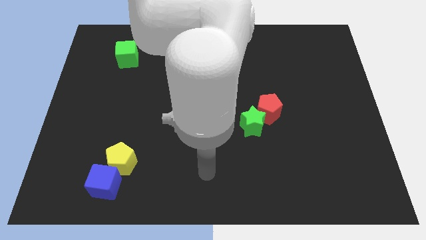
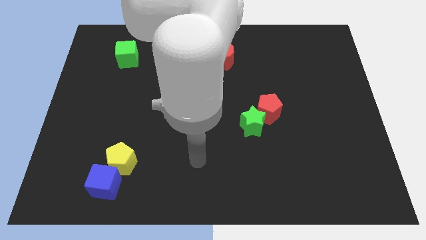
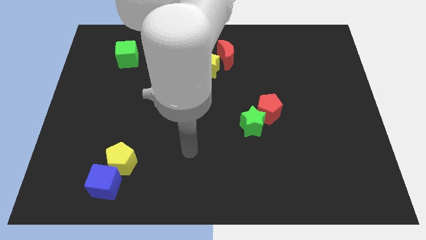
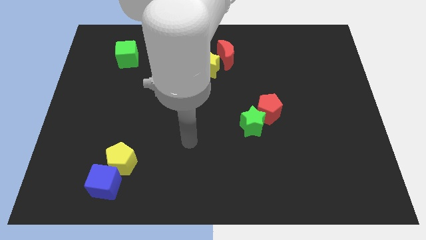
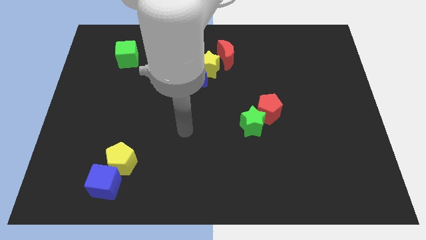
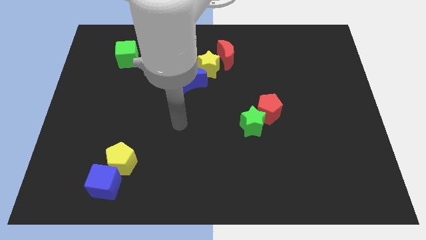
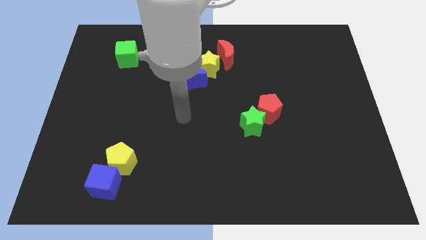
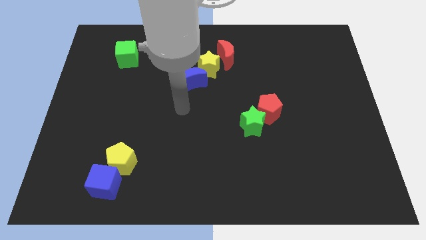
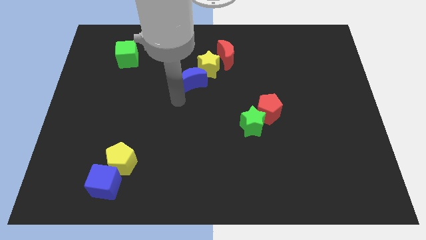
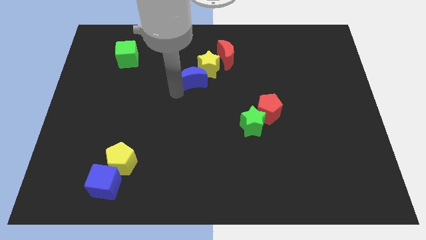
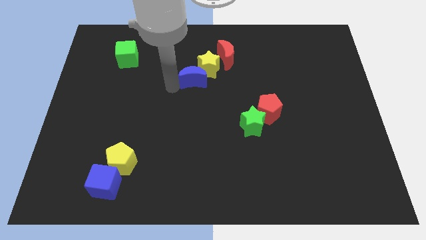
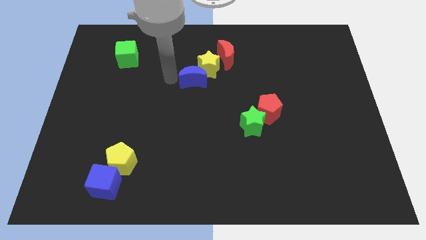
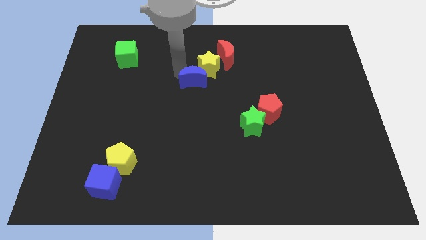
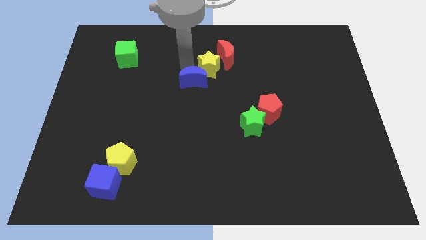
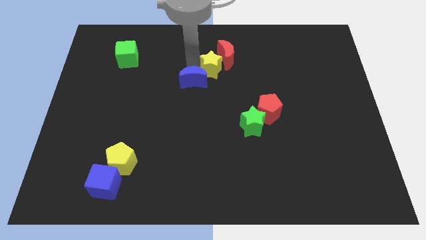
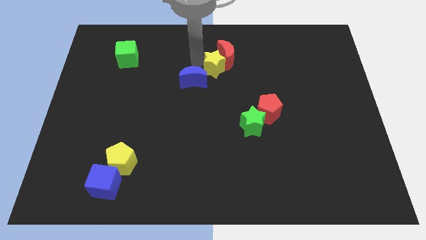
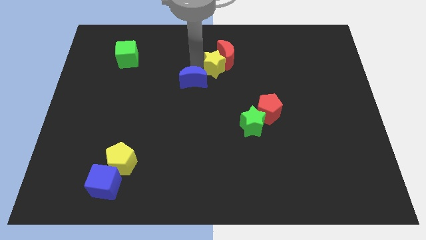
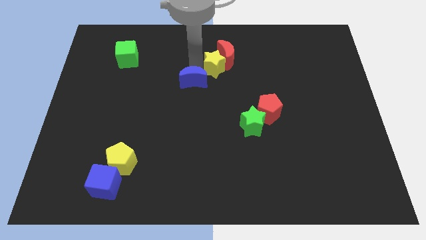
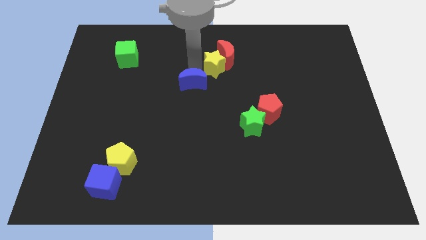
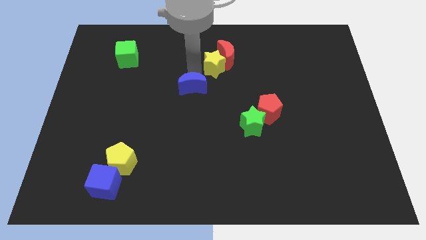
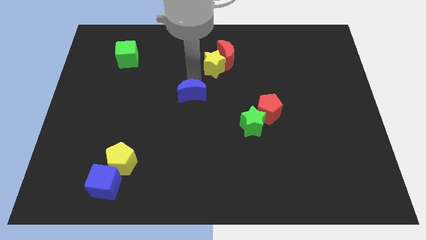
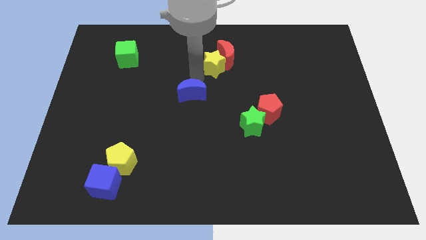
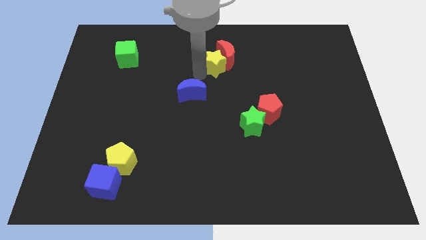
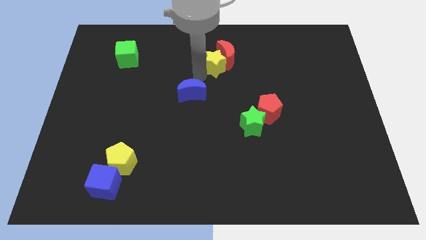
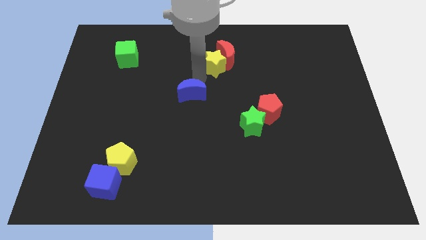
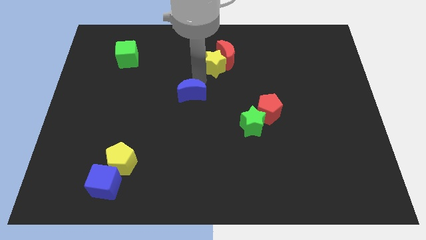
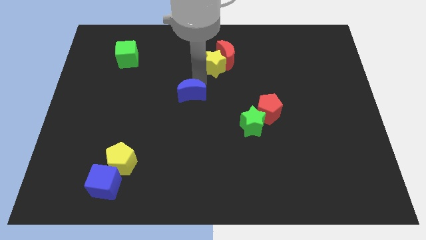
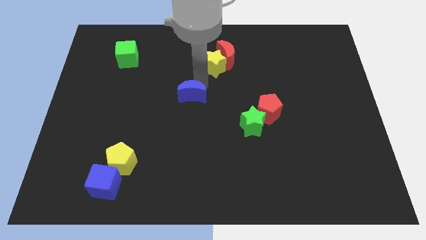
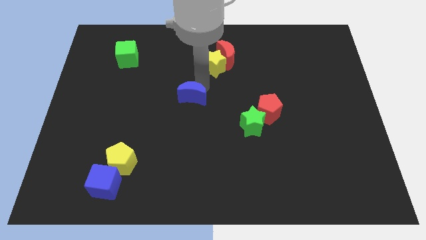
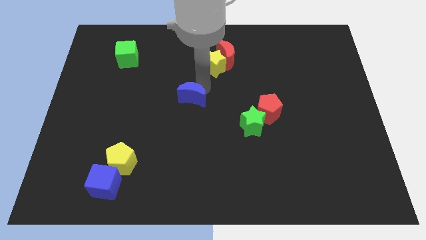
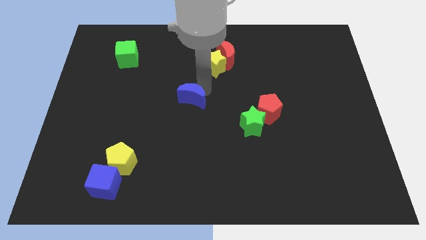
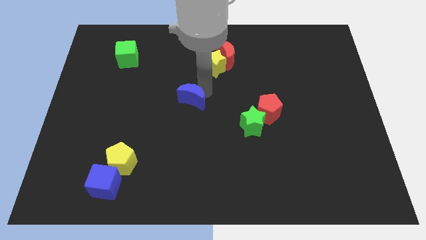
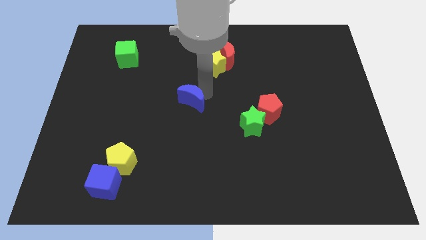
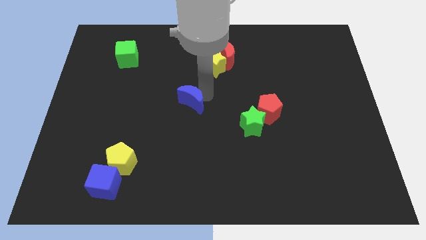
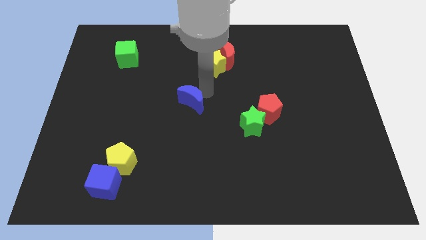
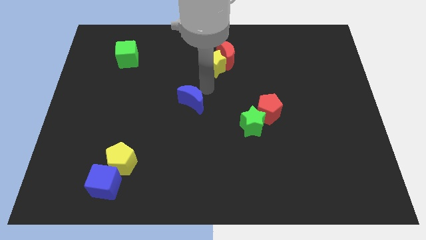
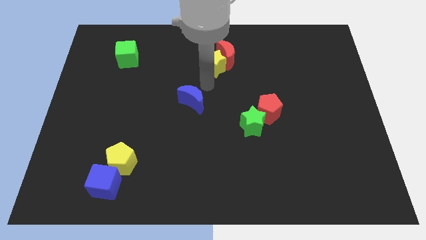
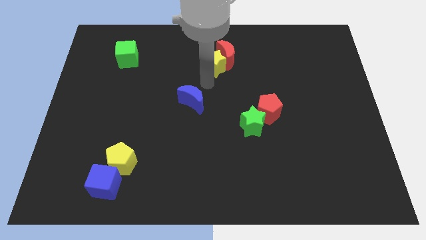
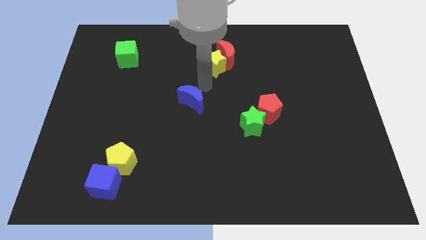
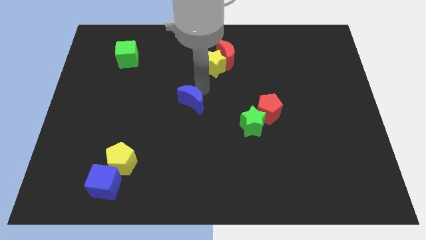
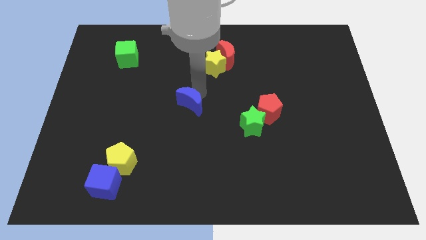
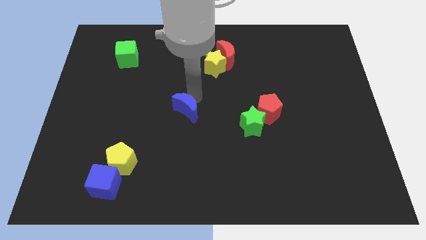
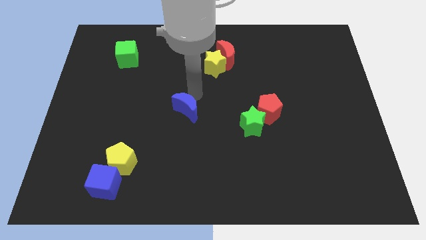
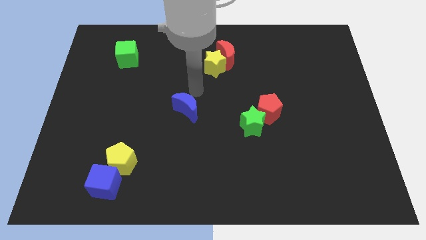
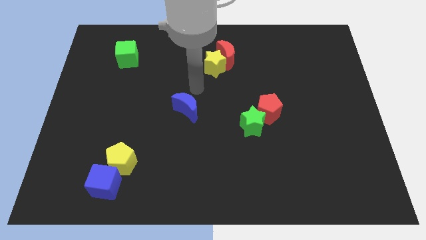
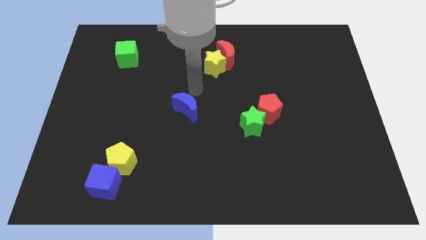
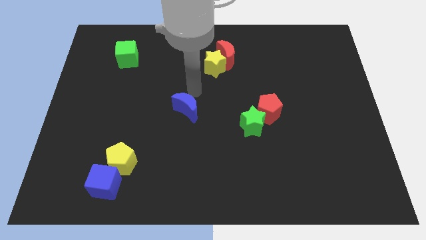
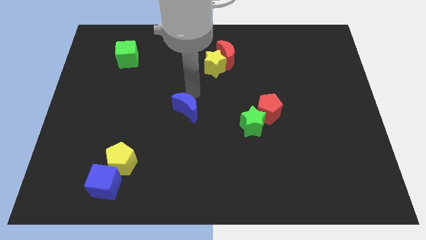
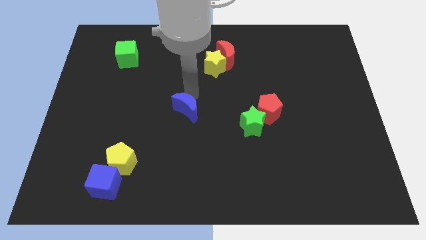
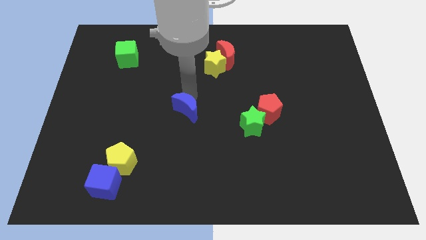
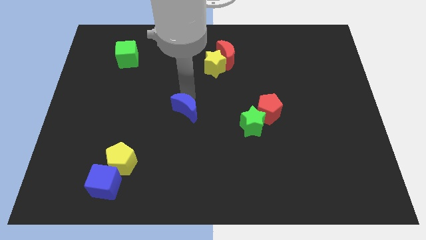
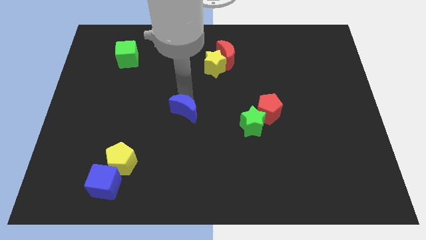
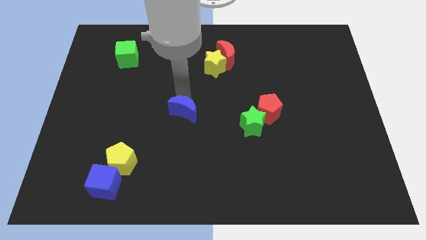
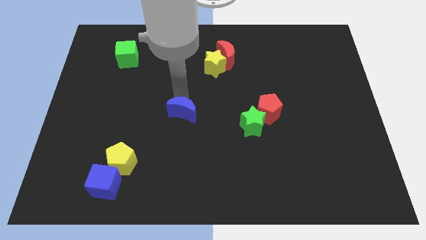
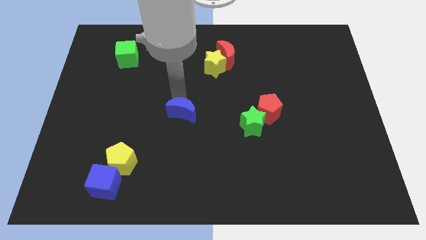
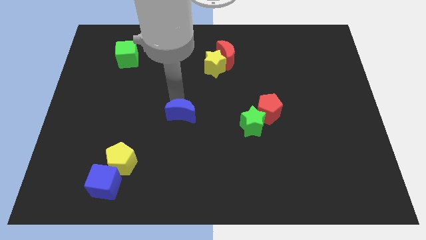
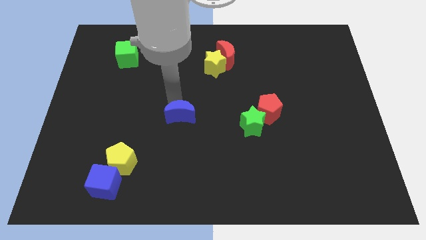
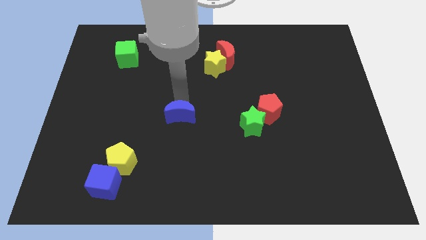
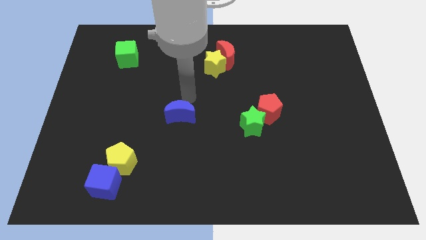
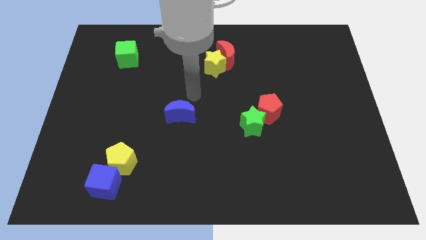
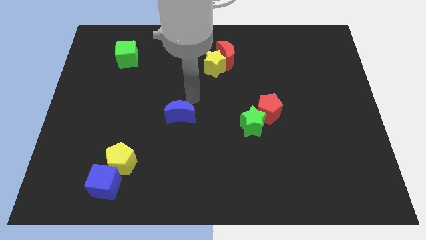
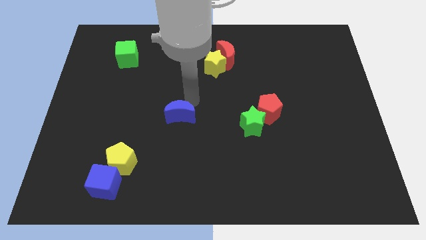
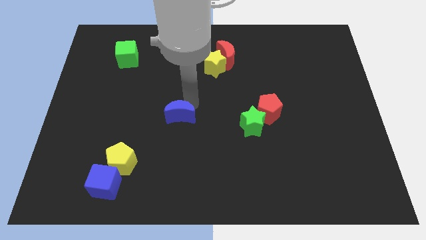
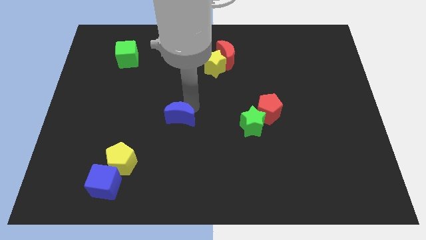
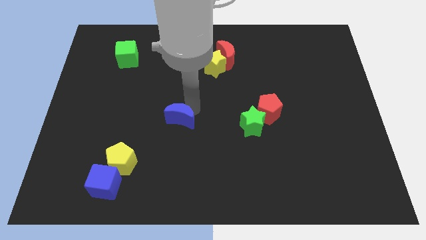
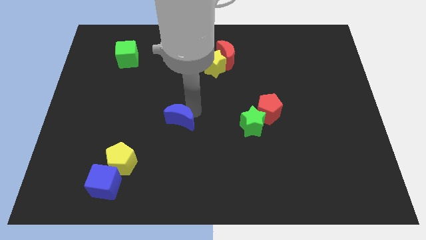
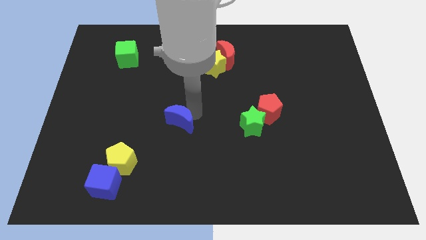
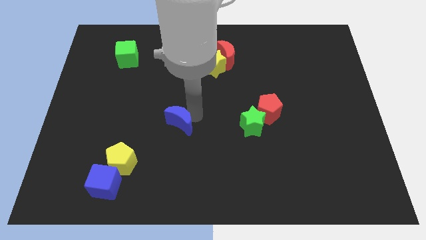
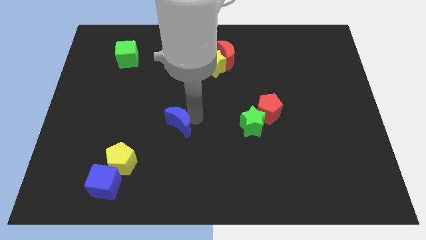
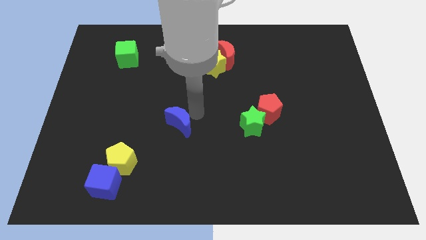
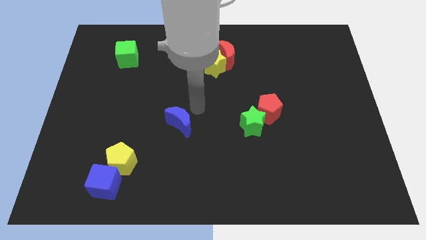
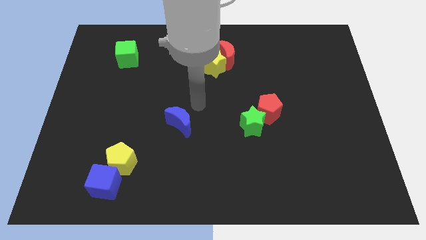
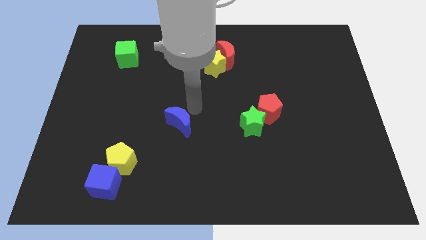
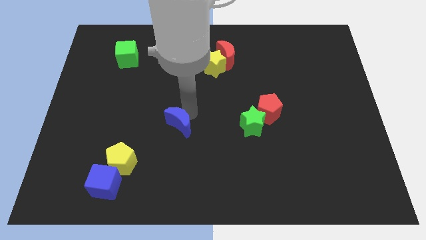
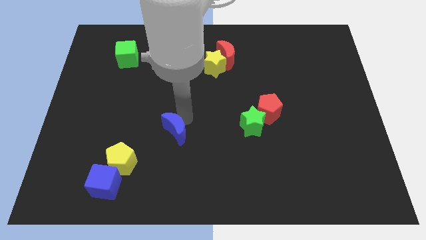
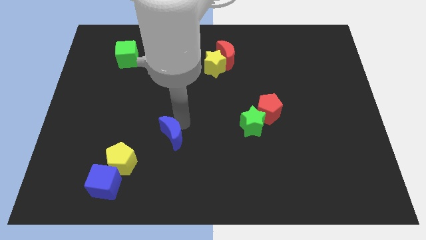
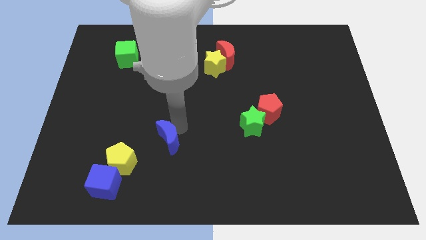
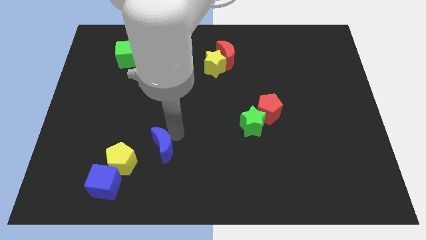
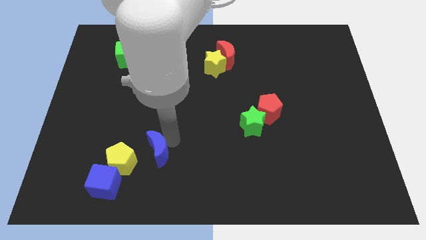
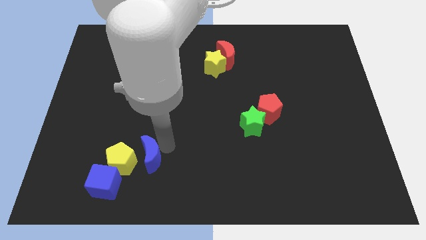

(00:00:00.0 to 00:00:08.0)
push the blue moon diagonally up and to the right of the blue cube
